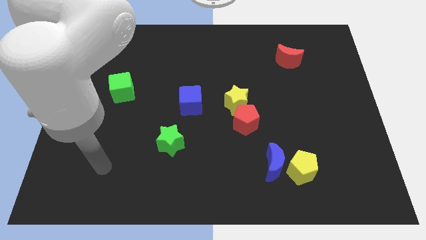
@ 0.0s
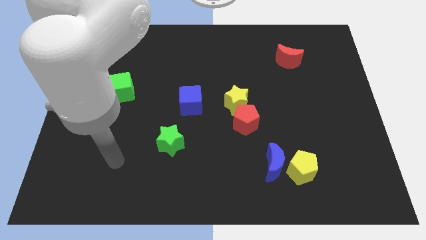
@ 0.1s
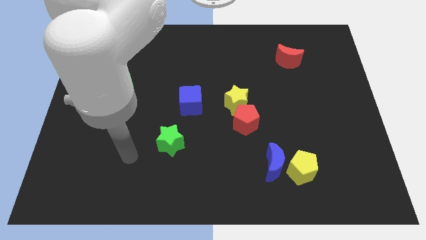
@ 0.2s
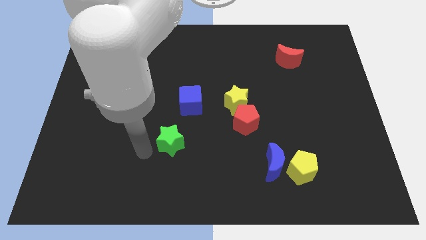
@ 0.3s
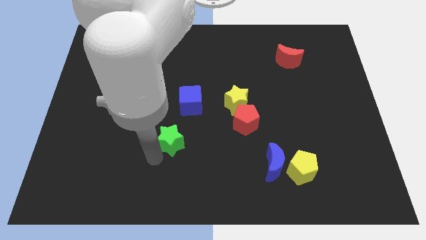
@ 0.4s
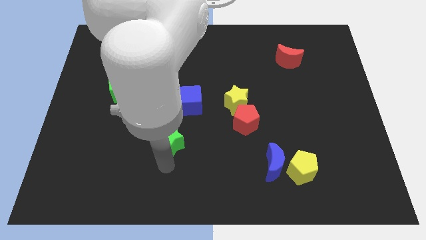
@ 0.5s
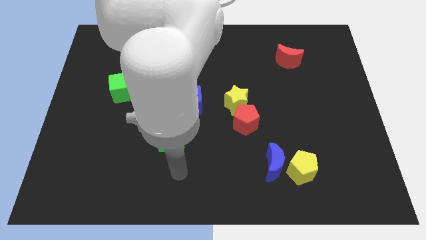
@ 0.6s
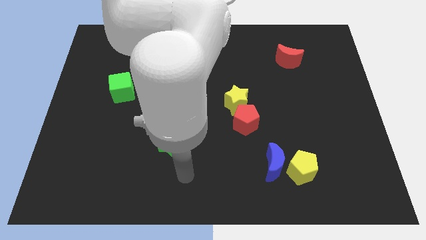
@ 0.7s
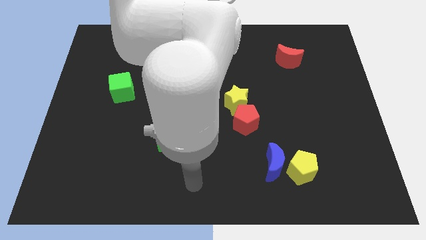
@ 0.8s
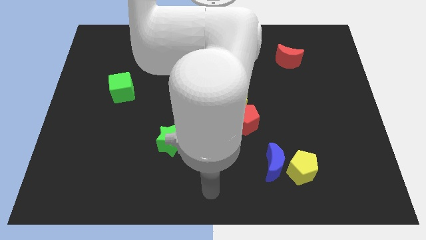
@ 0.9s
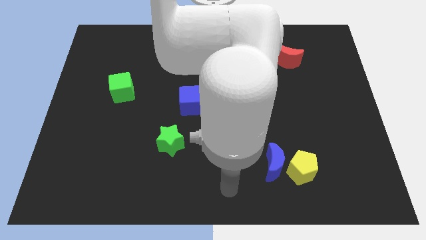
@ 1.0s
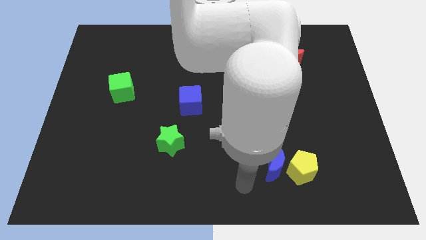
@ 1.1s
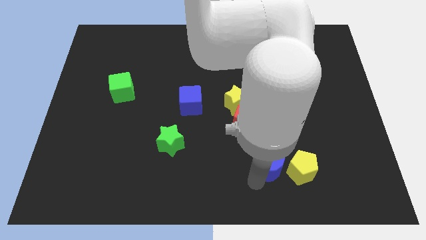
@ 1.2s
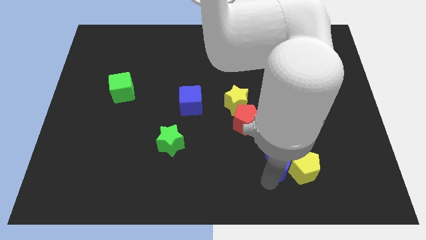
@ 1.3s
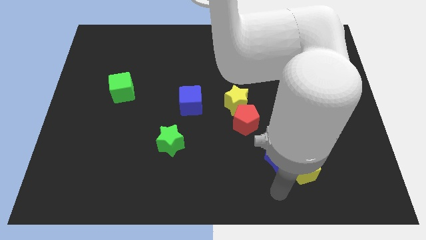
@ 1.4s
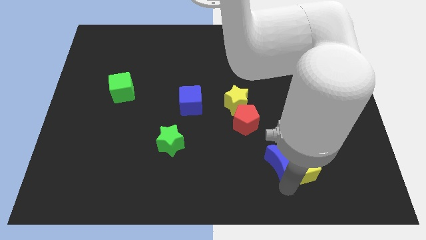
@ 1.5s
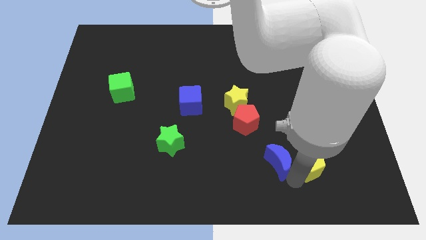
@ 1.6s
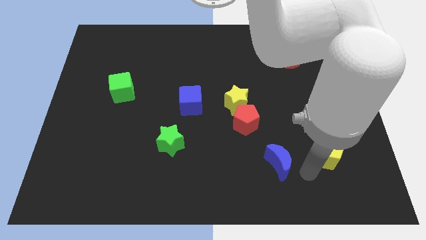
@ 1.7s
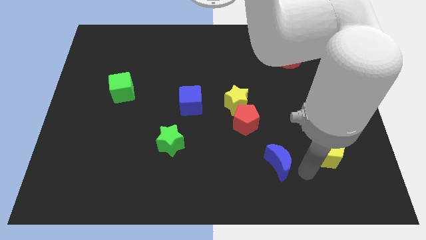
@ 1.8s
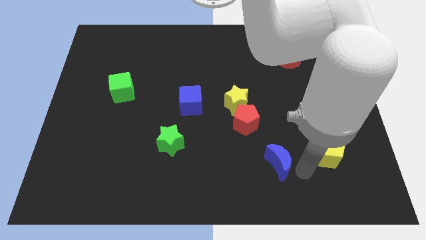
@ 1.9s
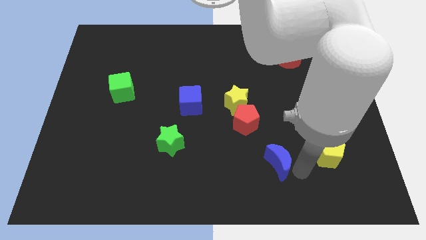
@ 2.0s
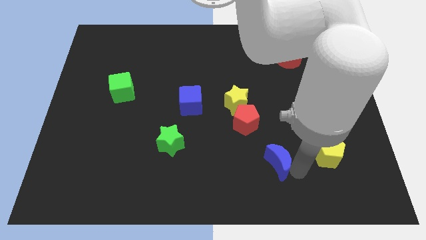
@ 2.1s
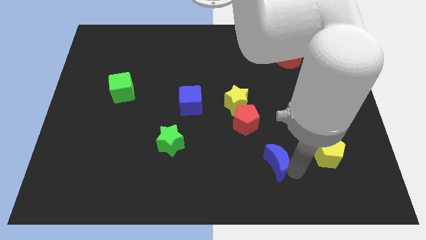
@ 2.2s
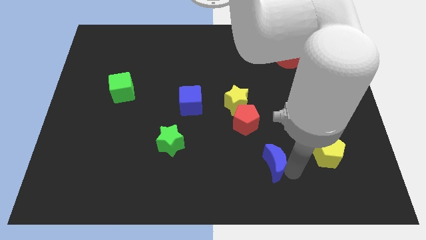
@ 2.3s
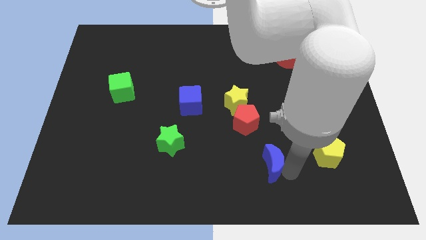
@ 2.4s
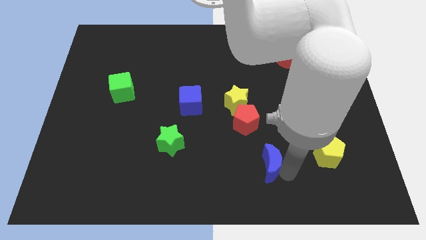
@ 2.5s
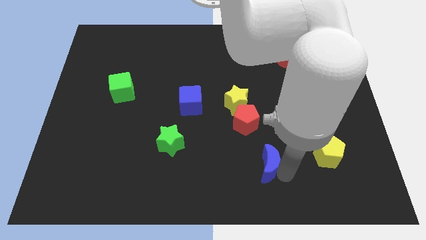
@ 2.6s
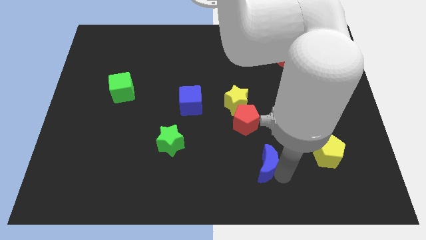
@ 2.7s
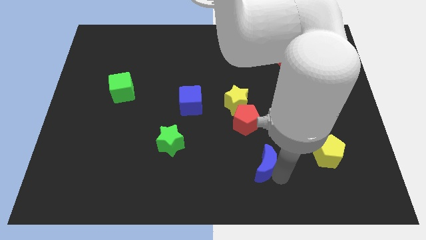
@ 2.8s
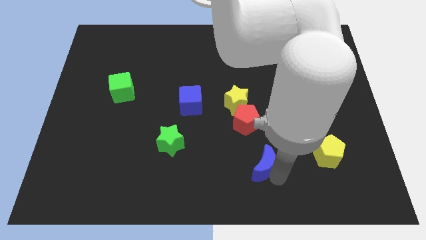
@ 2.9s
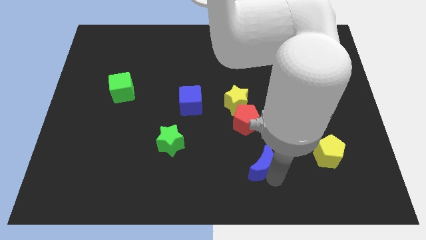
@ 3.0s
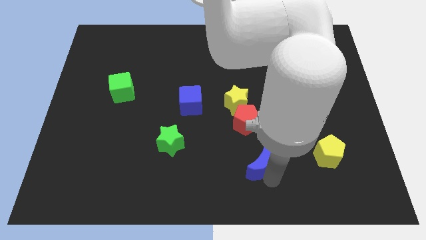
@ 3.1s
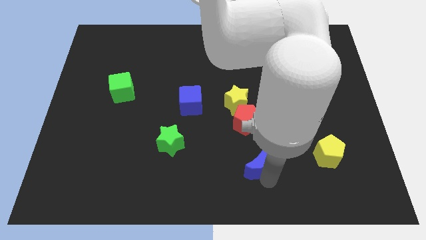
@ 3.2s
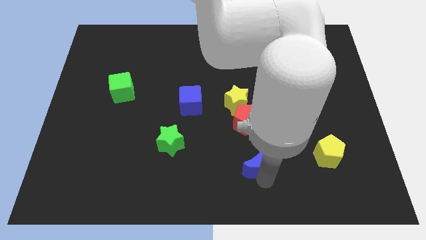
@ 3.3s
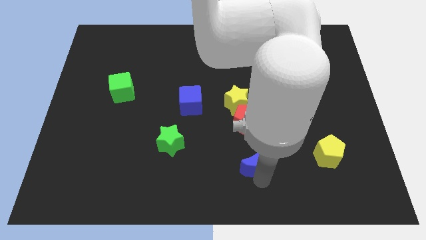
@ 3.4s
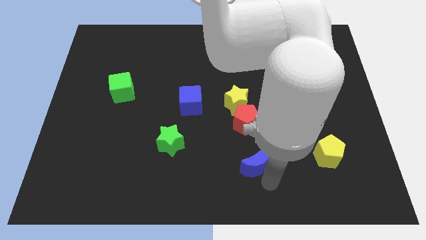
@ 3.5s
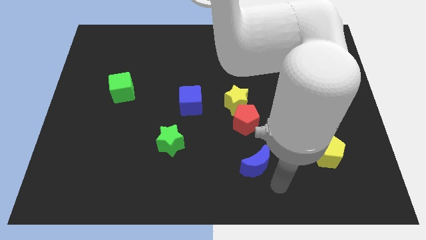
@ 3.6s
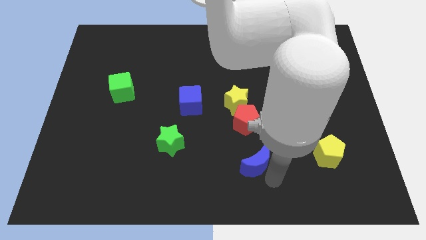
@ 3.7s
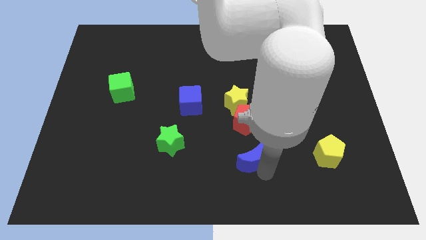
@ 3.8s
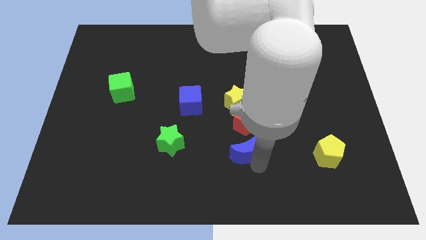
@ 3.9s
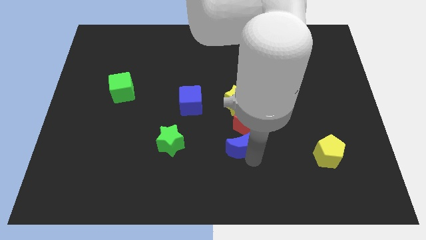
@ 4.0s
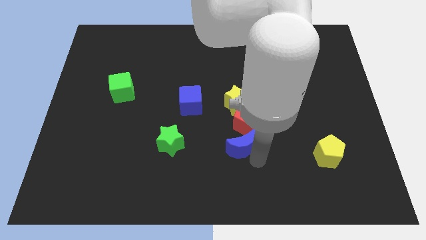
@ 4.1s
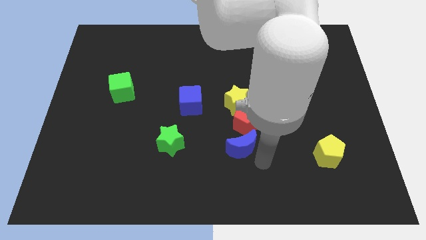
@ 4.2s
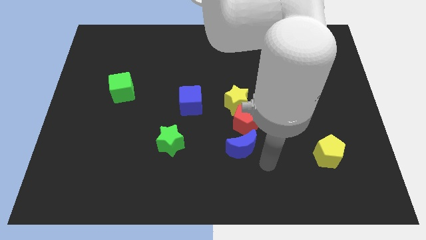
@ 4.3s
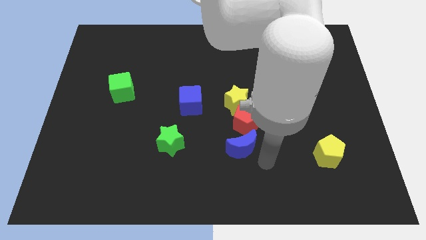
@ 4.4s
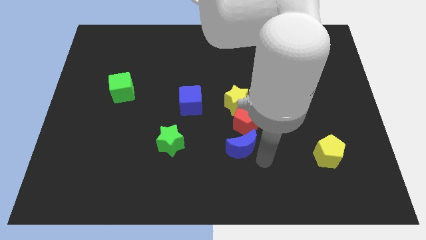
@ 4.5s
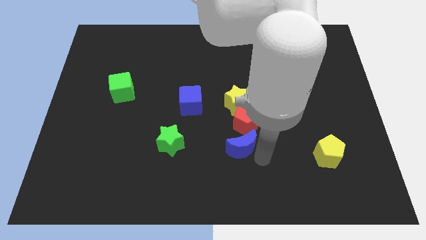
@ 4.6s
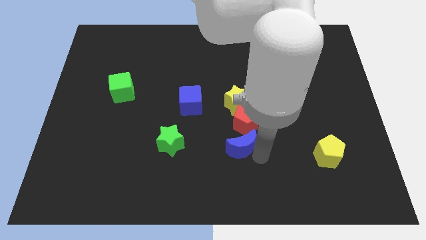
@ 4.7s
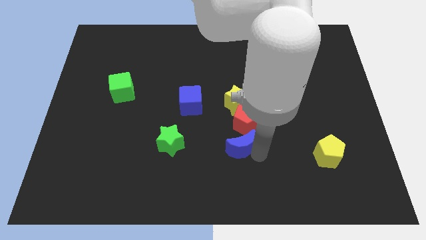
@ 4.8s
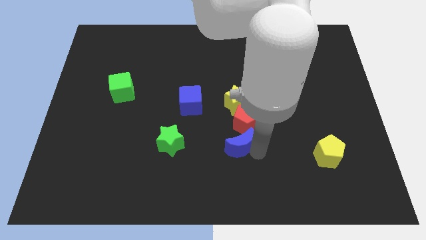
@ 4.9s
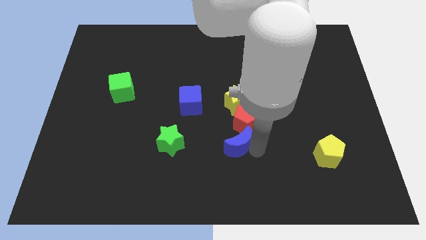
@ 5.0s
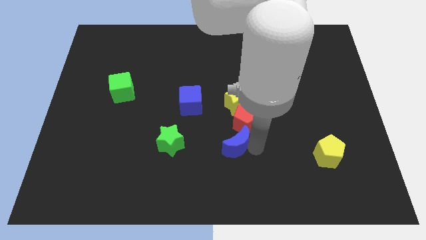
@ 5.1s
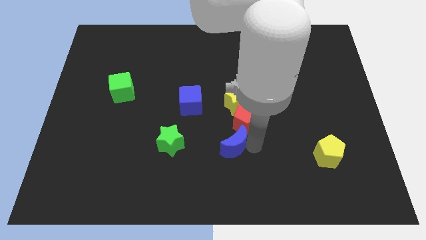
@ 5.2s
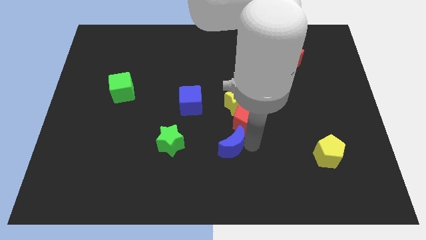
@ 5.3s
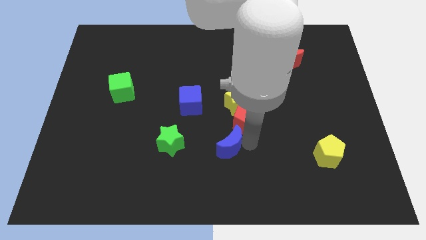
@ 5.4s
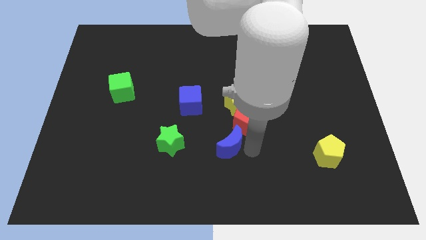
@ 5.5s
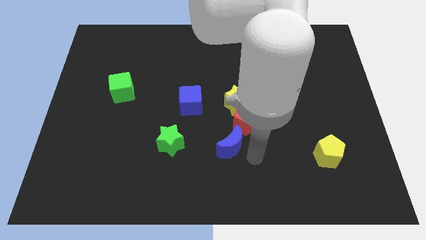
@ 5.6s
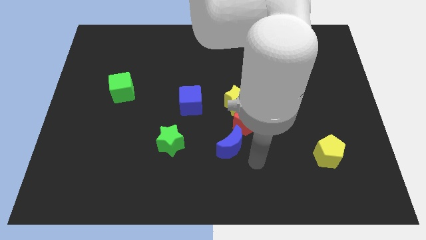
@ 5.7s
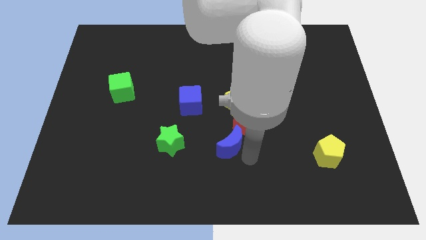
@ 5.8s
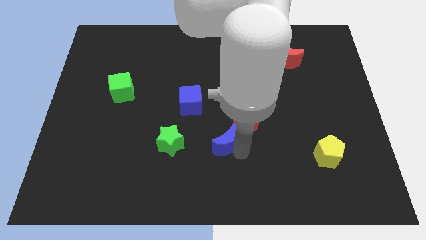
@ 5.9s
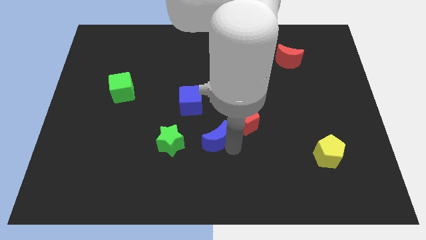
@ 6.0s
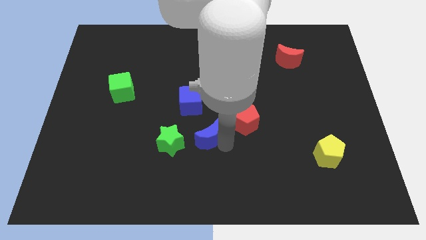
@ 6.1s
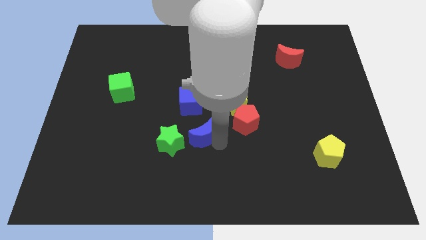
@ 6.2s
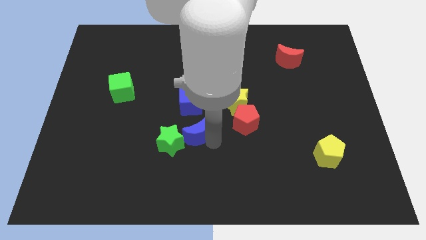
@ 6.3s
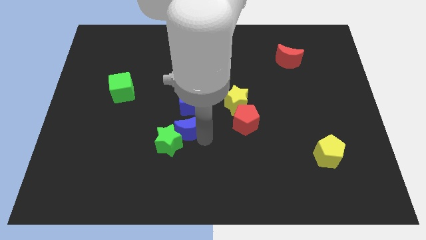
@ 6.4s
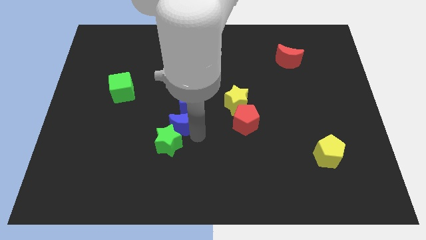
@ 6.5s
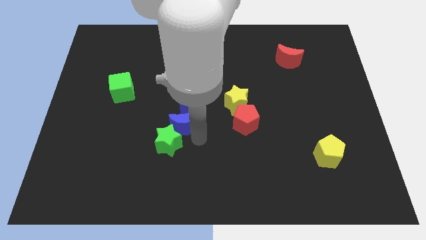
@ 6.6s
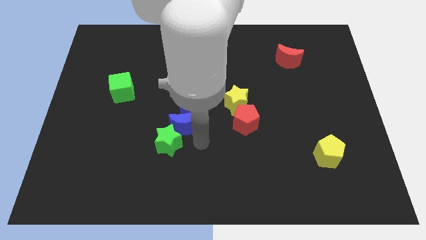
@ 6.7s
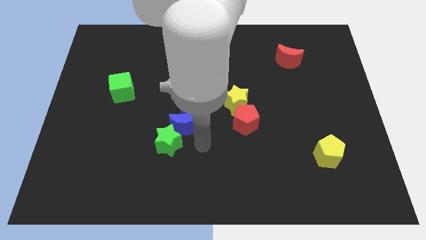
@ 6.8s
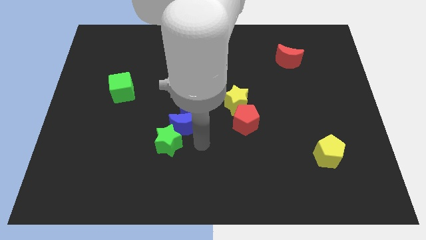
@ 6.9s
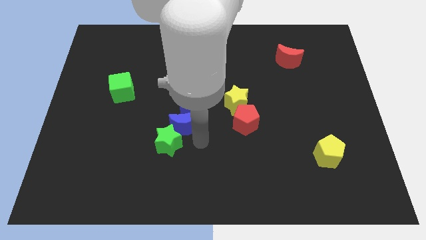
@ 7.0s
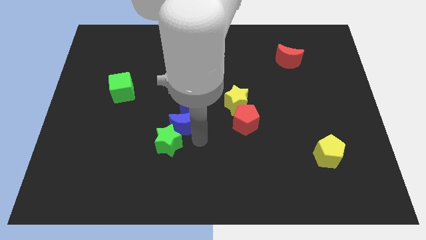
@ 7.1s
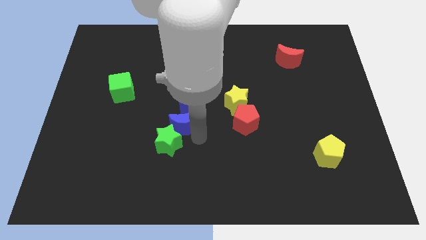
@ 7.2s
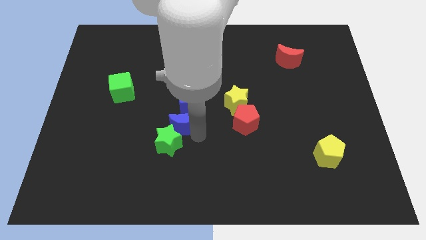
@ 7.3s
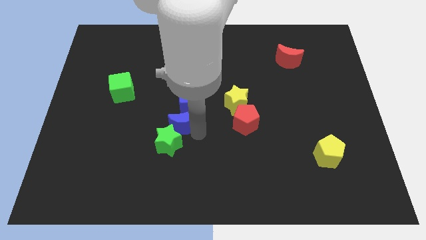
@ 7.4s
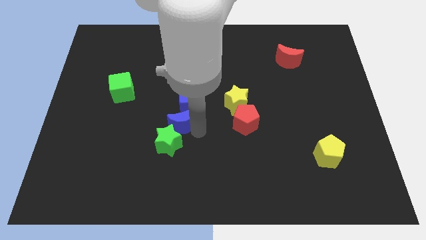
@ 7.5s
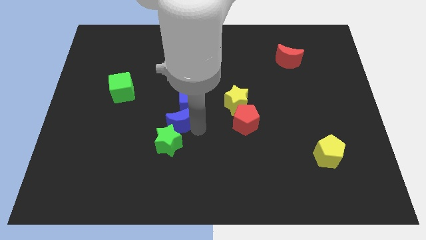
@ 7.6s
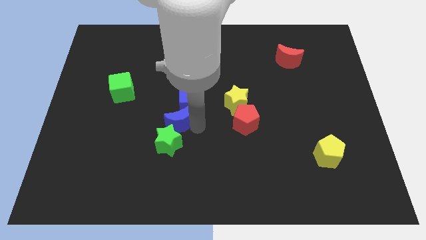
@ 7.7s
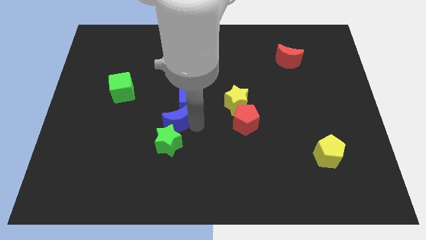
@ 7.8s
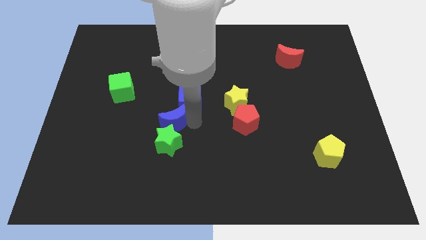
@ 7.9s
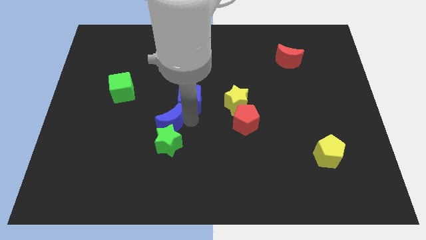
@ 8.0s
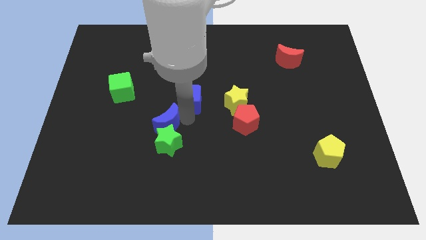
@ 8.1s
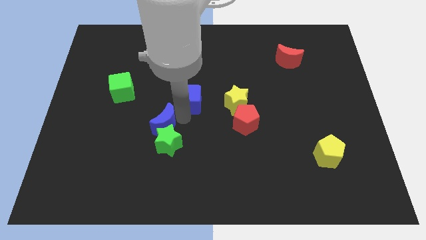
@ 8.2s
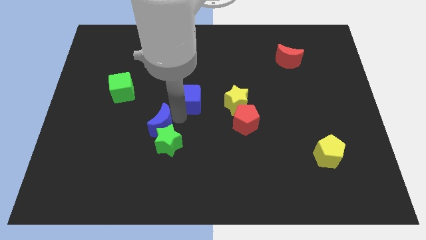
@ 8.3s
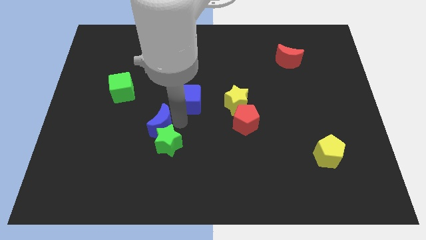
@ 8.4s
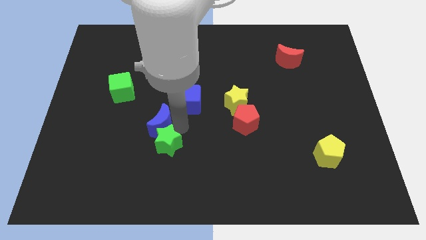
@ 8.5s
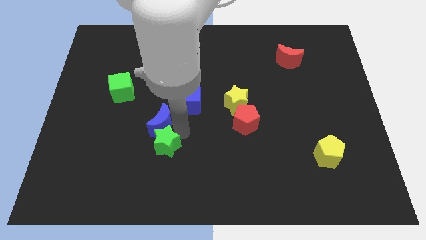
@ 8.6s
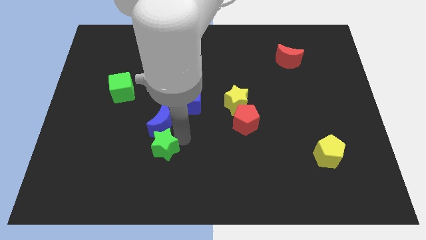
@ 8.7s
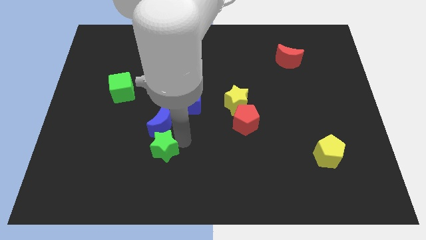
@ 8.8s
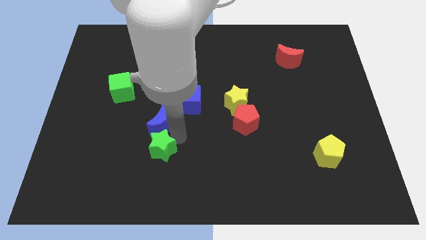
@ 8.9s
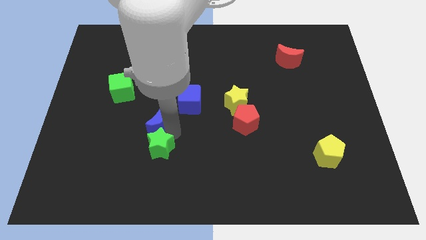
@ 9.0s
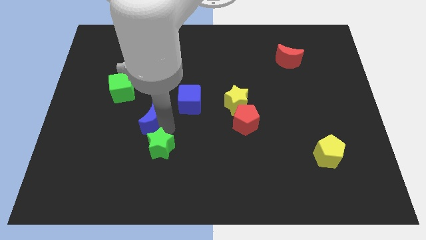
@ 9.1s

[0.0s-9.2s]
push the blue moon to the bottom right side of the green cube
